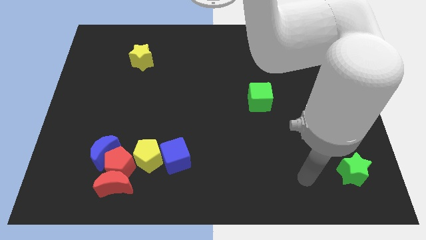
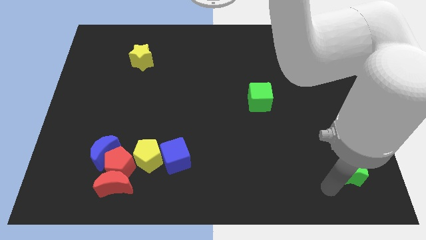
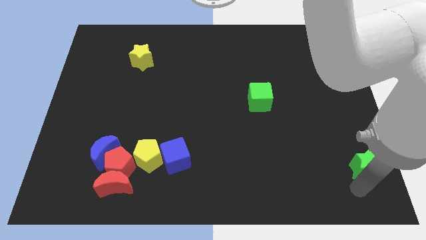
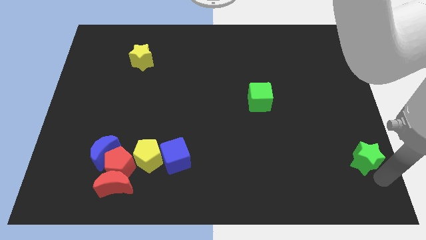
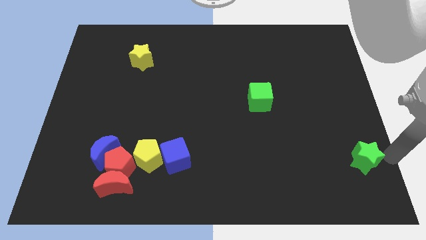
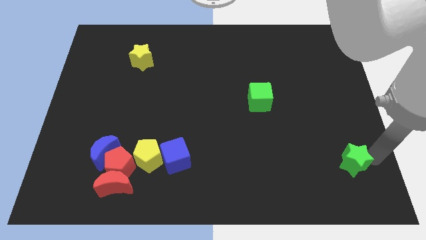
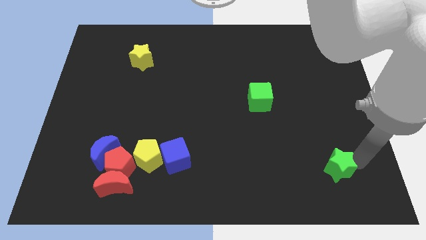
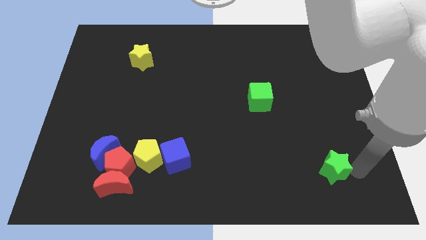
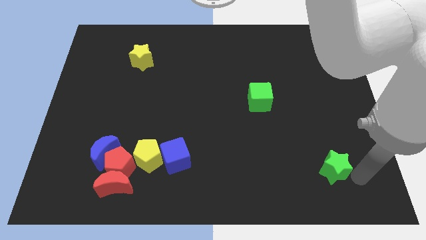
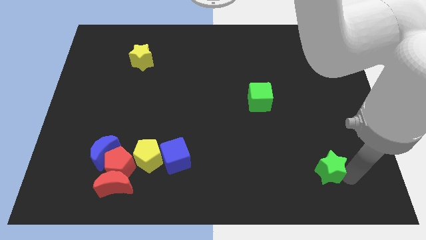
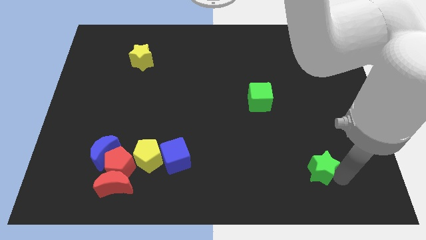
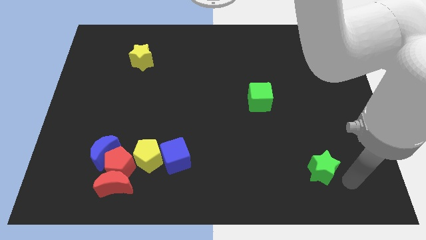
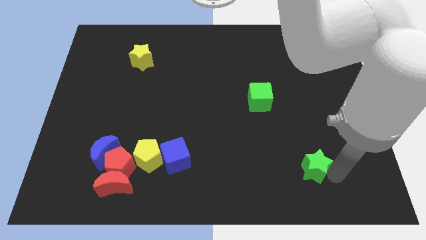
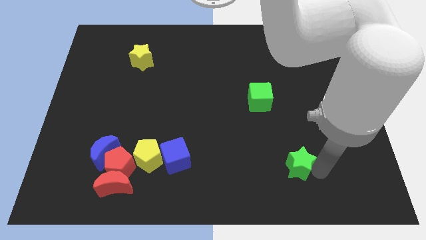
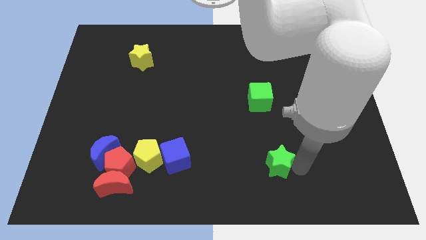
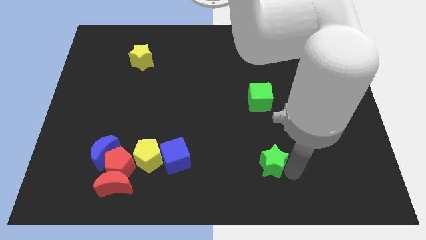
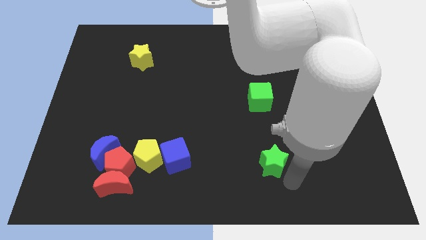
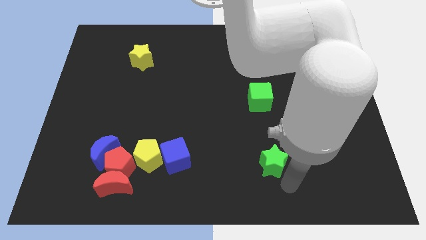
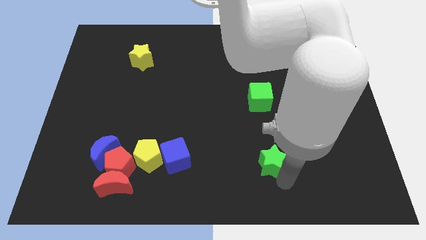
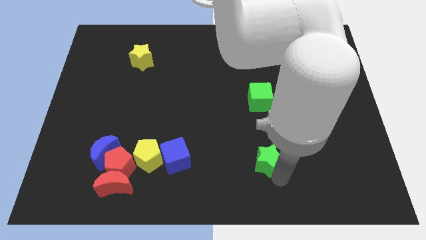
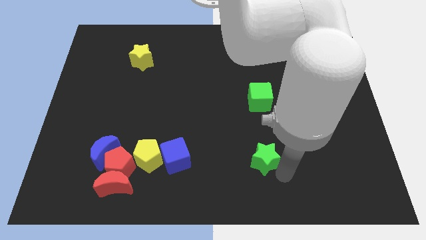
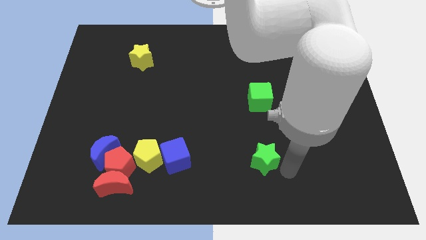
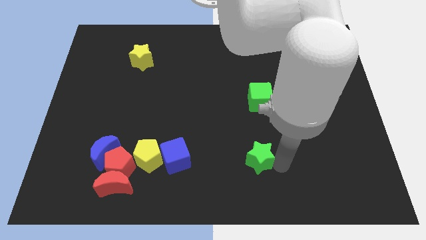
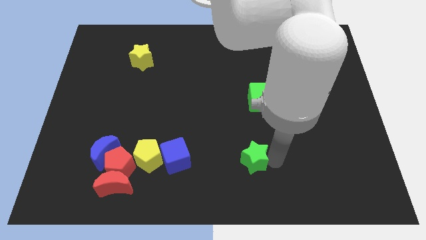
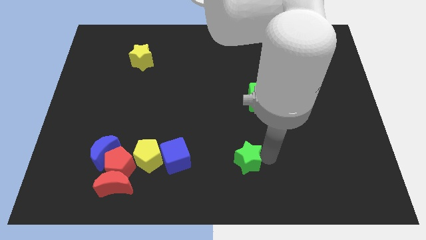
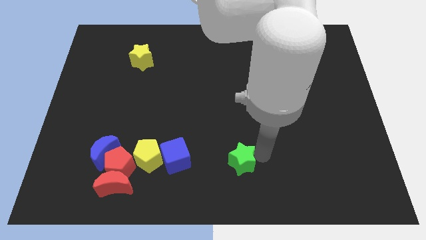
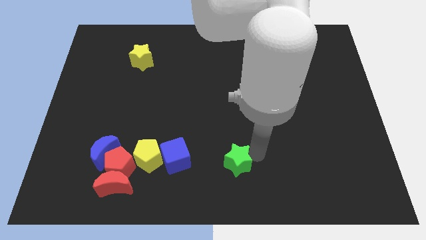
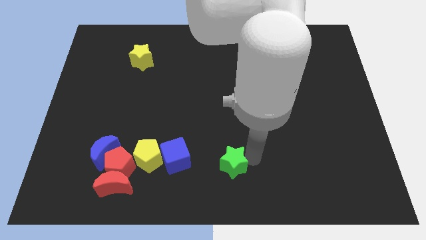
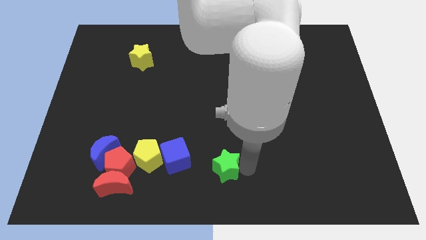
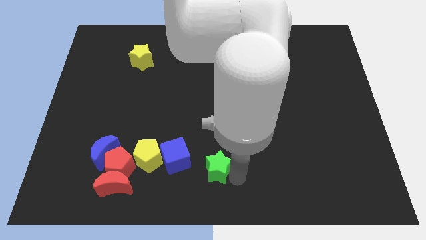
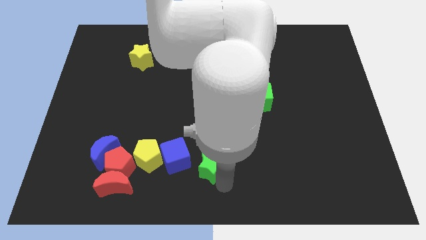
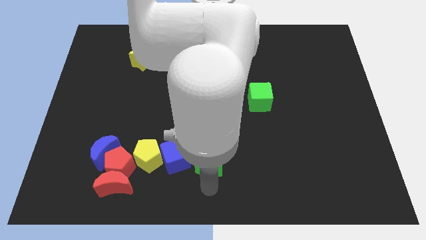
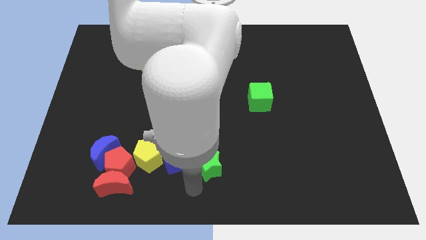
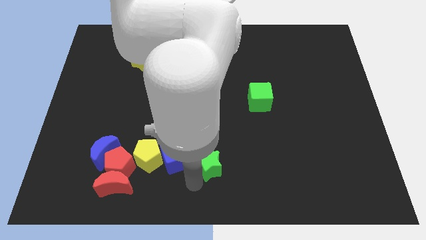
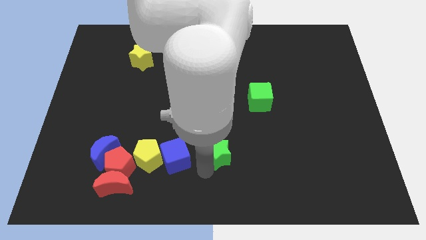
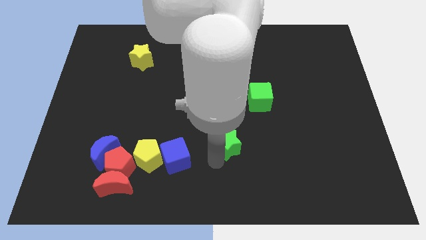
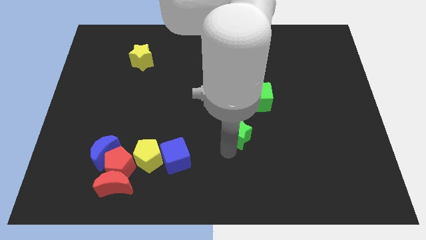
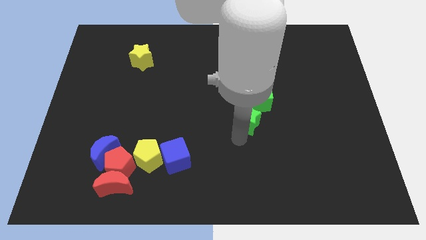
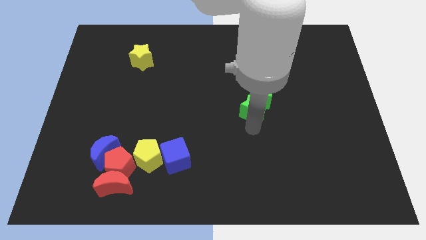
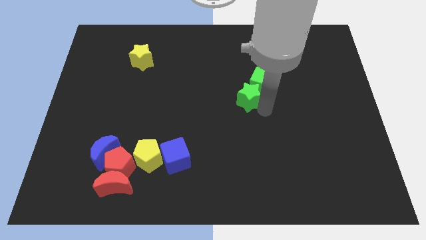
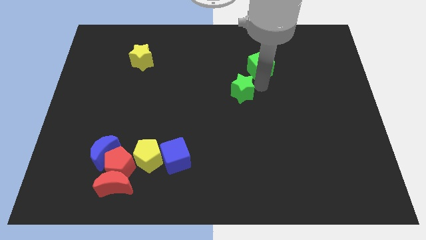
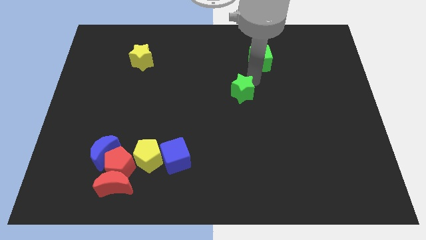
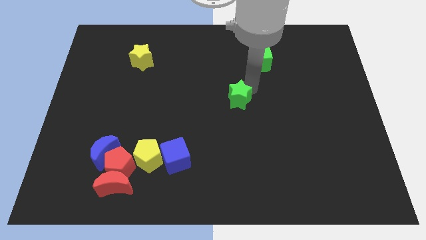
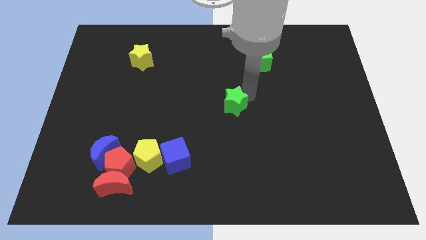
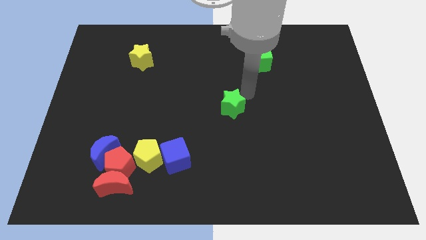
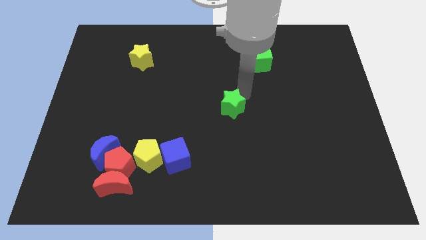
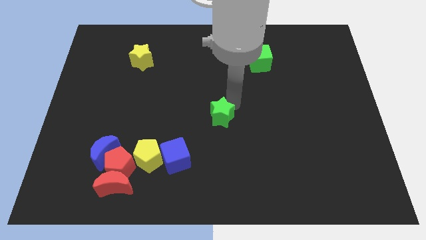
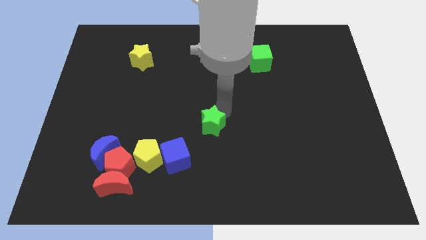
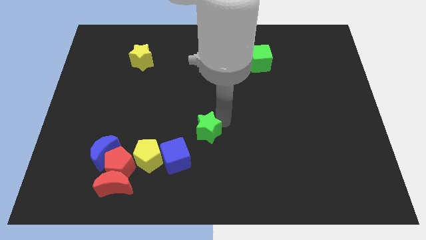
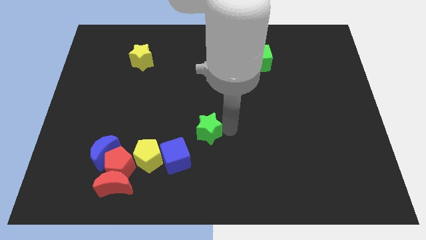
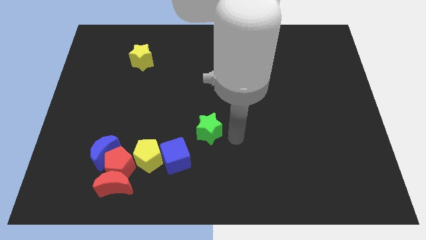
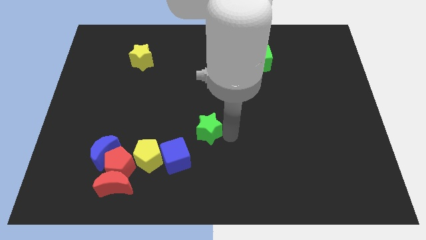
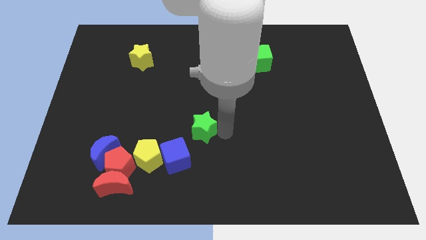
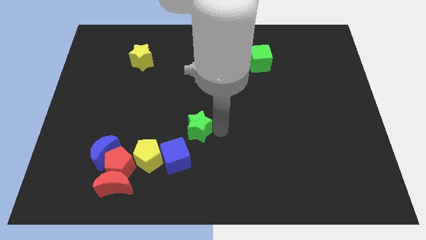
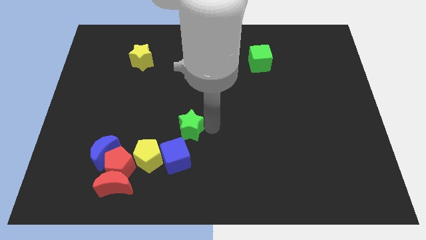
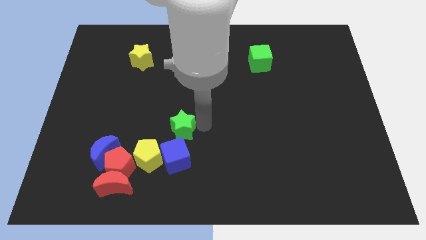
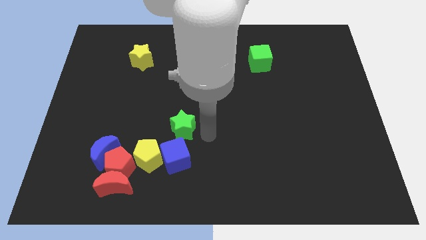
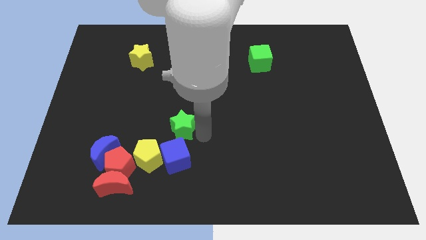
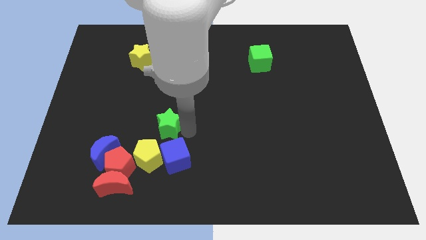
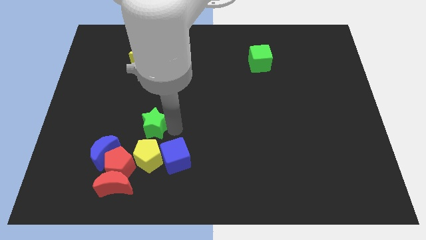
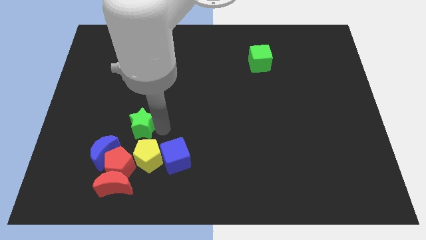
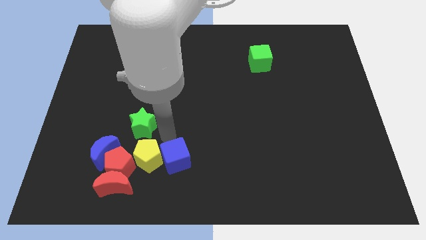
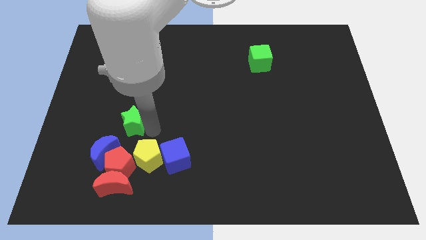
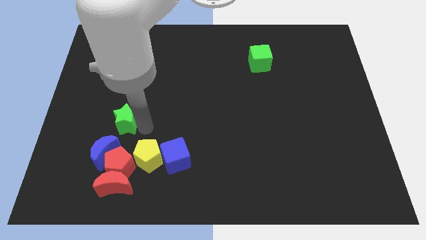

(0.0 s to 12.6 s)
slide the green star above the blue moon

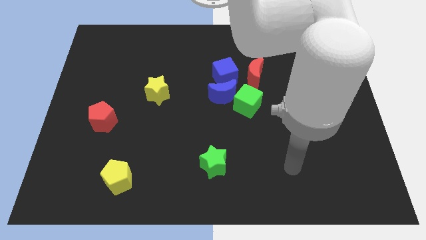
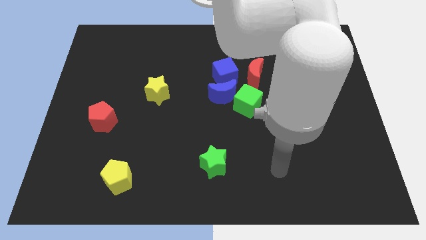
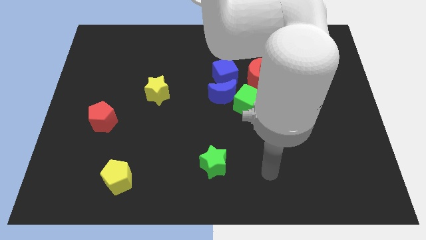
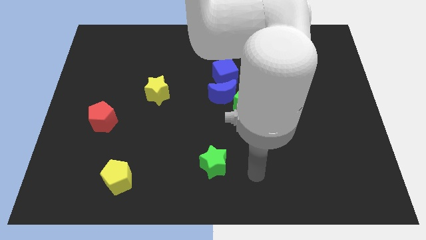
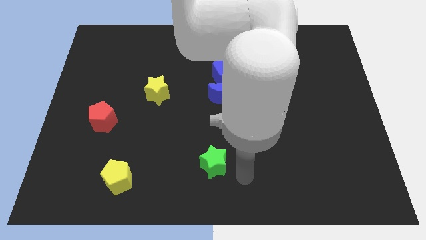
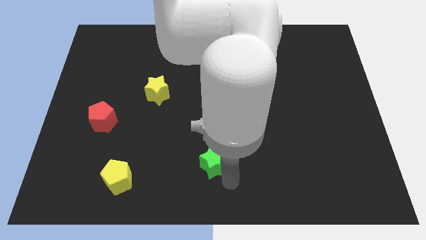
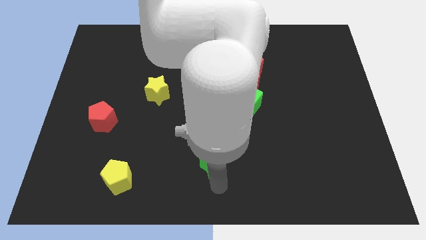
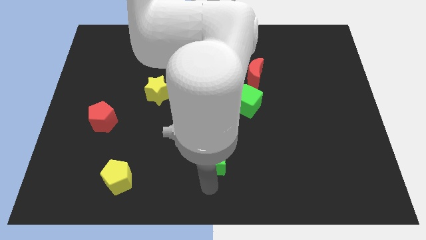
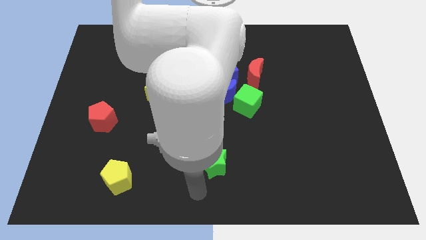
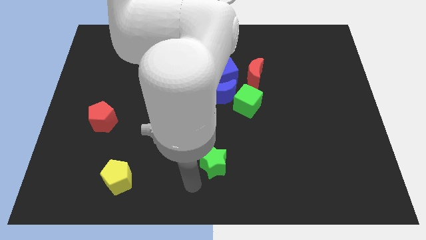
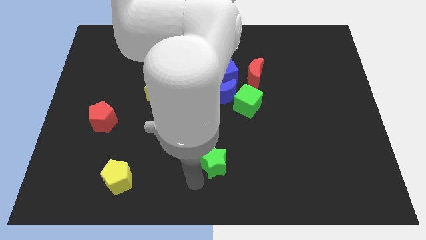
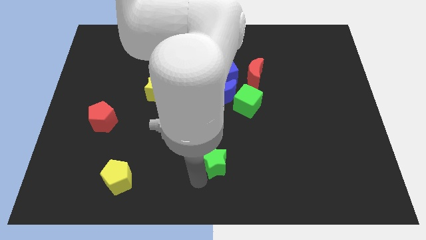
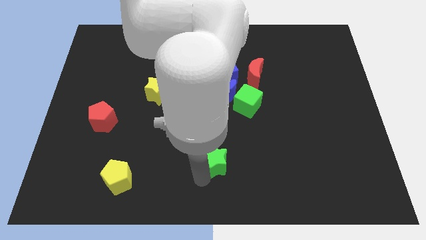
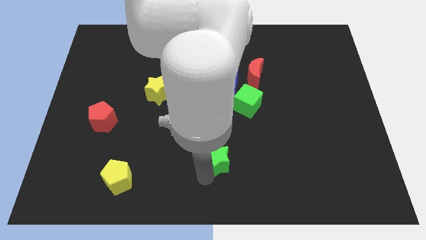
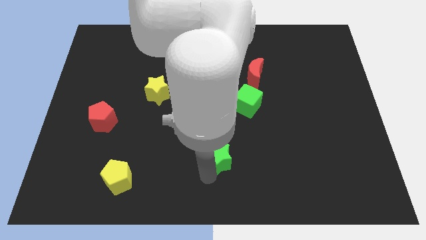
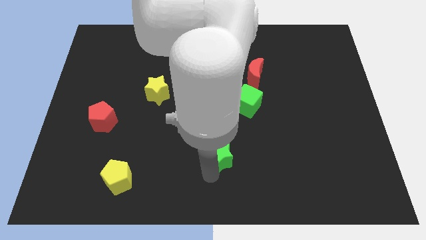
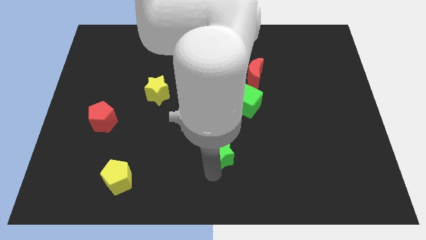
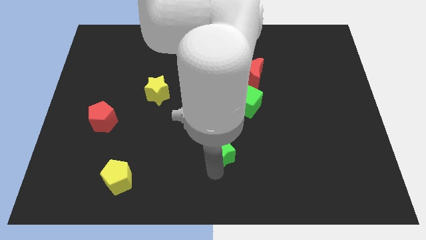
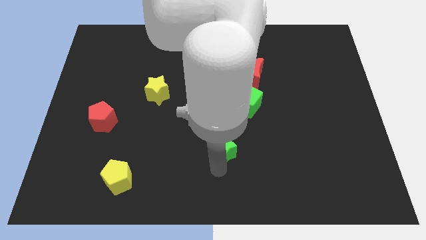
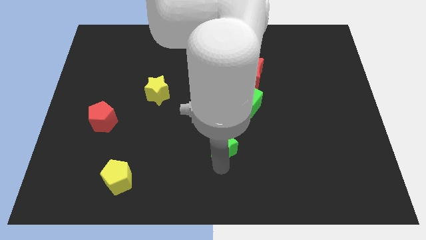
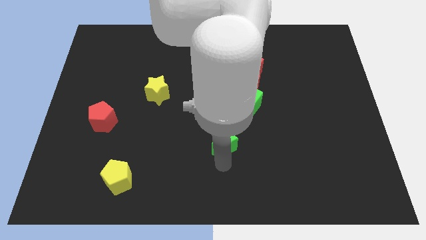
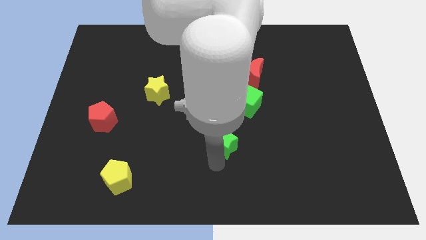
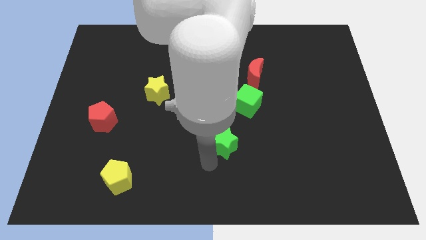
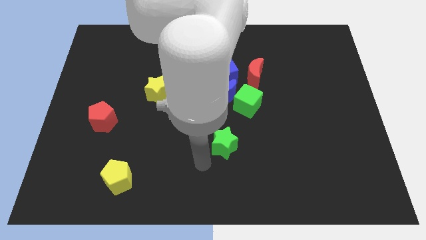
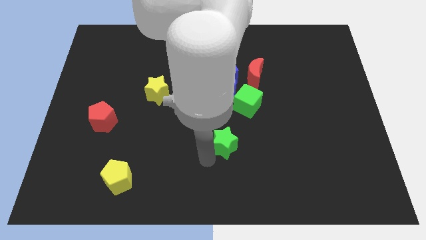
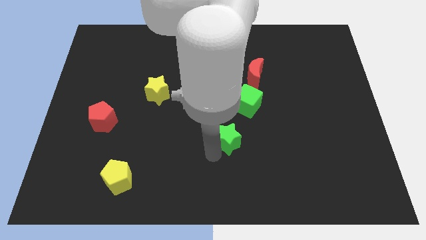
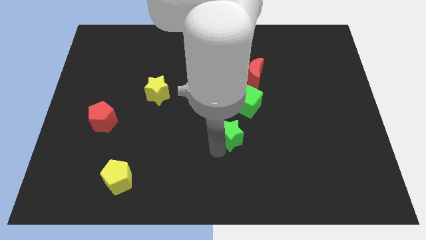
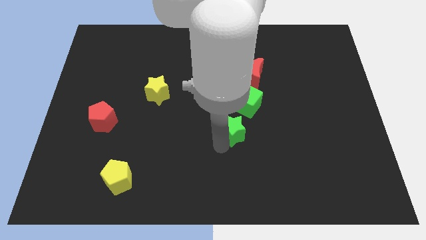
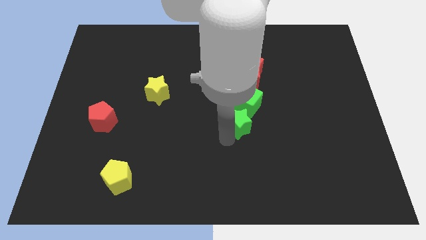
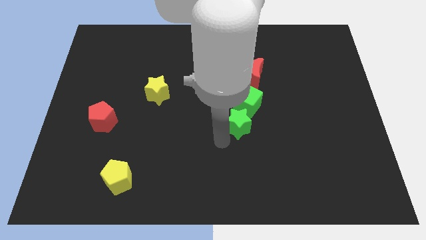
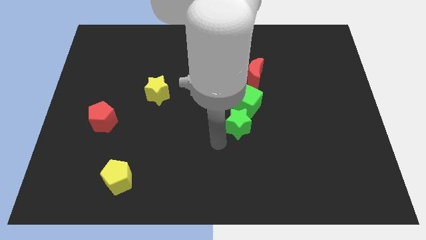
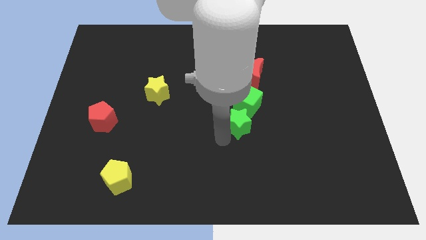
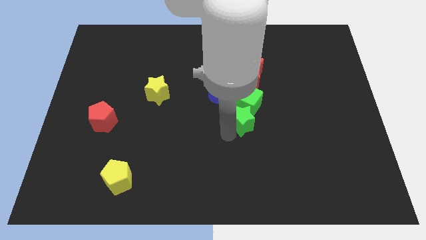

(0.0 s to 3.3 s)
put the green star to the bottom of the red moon
